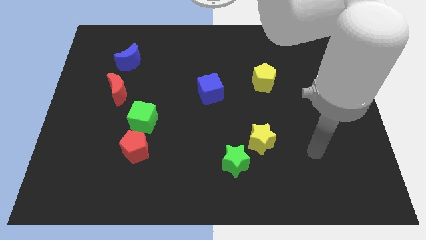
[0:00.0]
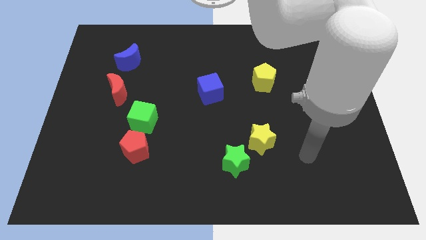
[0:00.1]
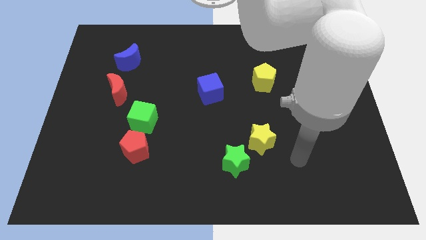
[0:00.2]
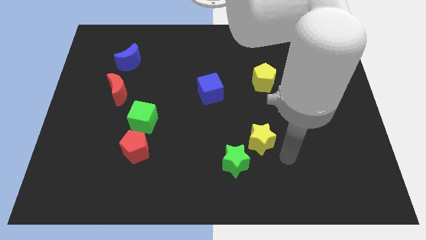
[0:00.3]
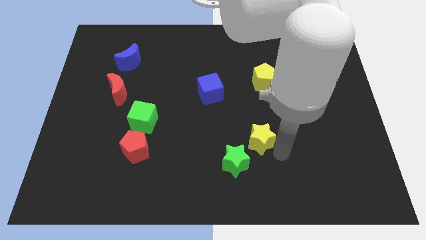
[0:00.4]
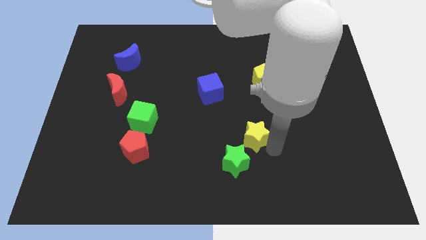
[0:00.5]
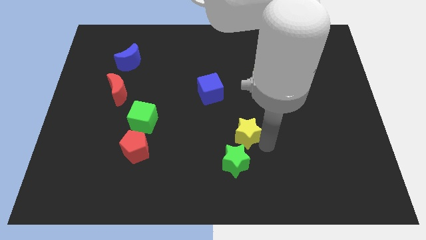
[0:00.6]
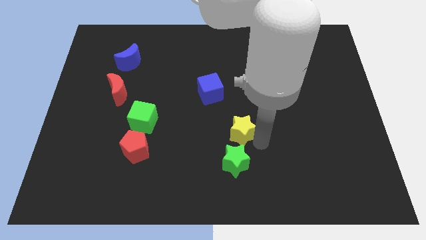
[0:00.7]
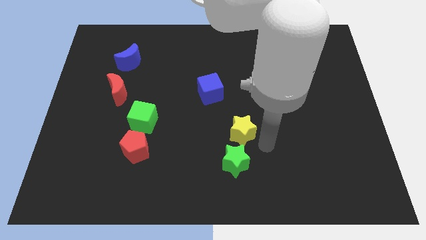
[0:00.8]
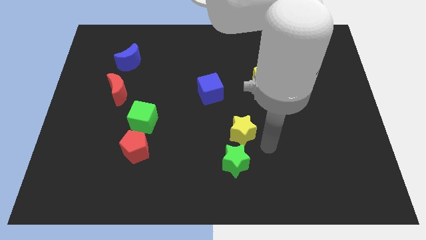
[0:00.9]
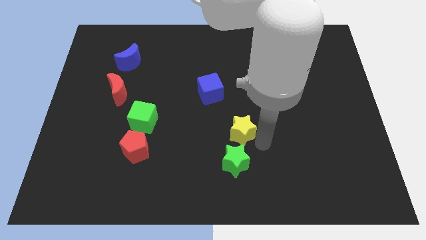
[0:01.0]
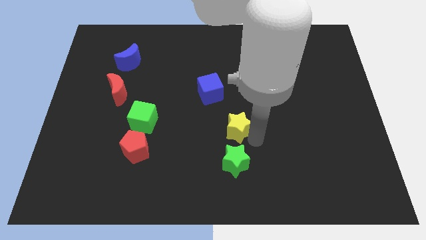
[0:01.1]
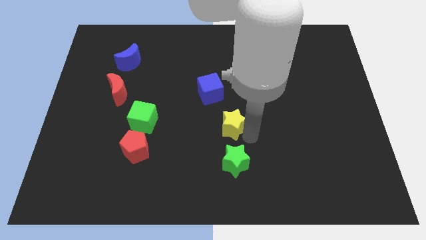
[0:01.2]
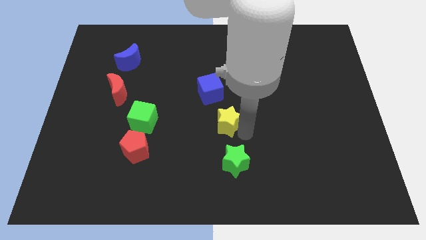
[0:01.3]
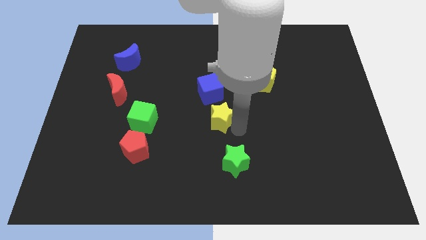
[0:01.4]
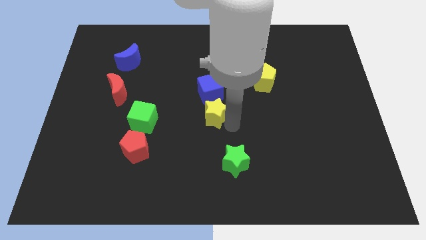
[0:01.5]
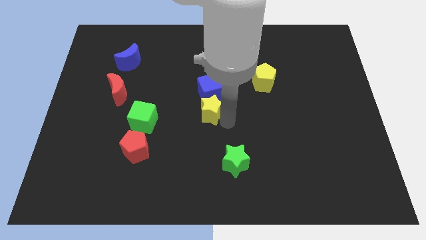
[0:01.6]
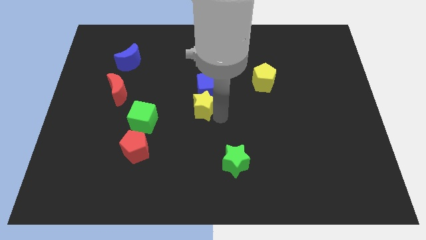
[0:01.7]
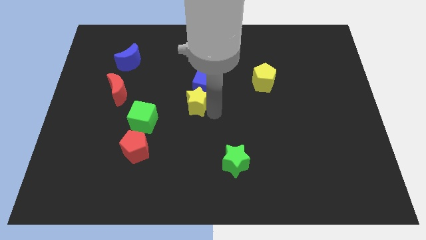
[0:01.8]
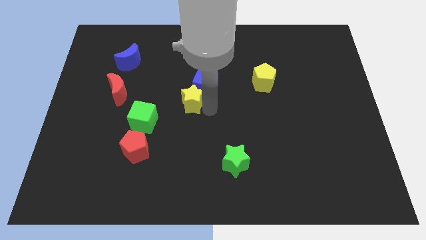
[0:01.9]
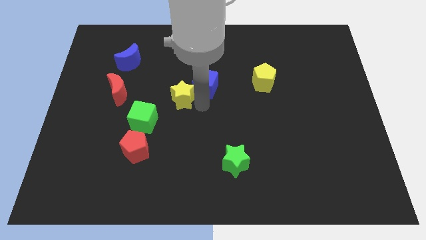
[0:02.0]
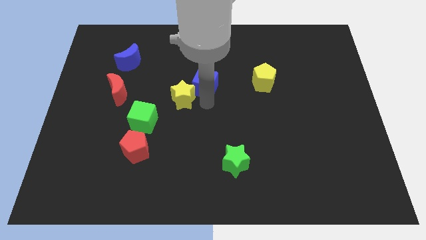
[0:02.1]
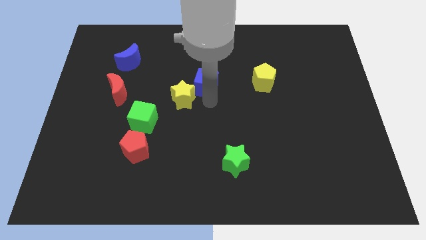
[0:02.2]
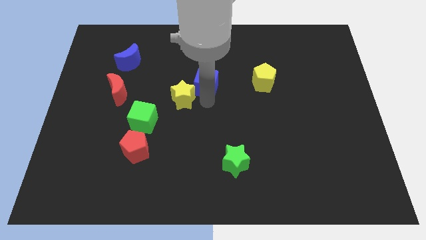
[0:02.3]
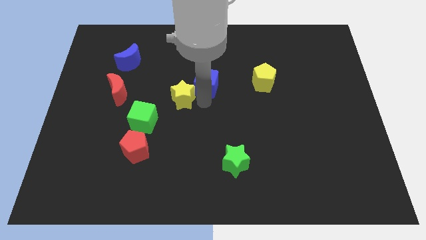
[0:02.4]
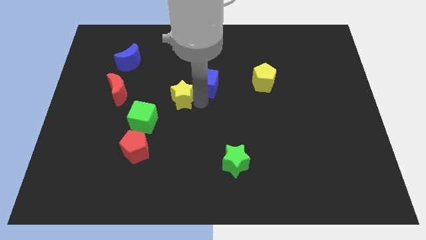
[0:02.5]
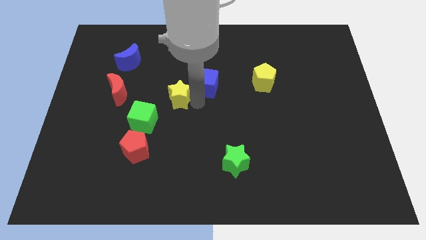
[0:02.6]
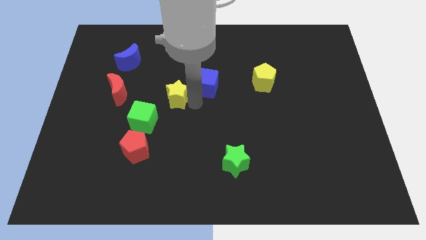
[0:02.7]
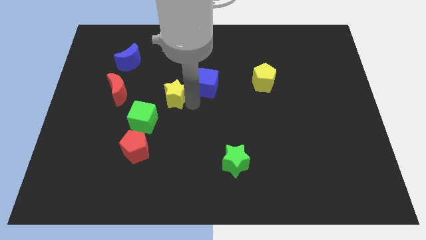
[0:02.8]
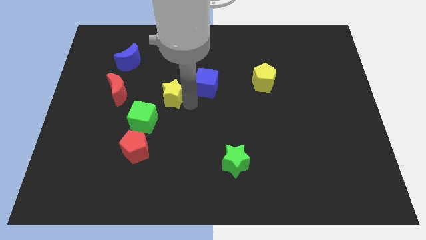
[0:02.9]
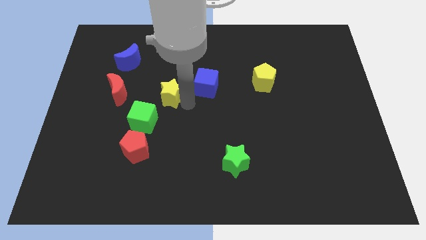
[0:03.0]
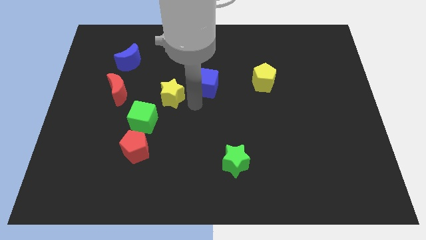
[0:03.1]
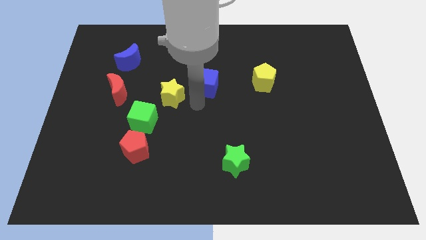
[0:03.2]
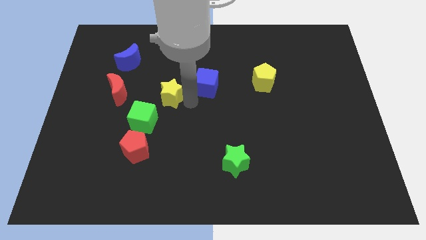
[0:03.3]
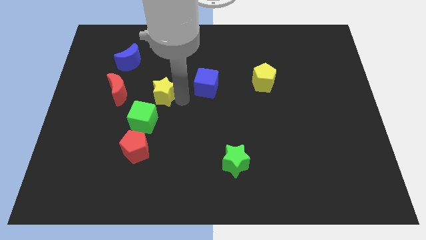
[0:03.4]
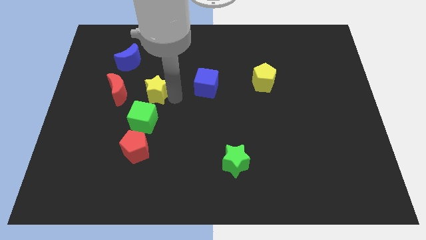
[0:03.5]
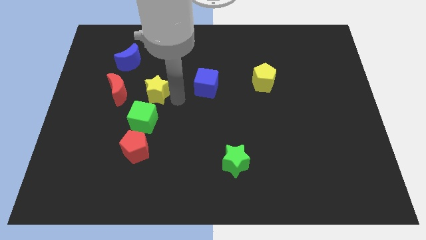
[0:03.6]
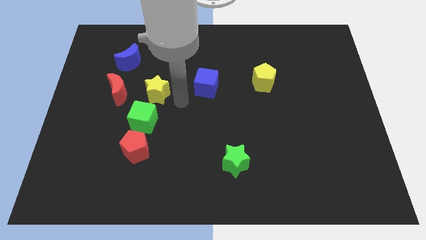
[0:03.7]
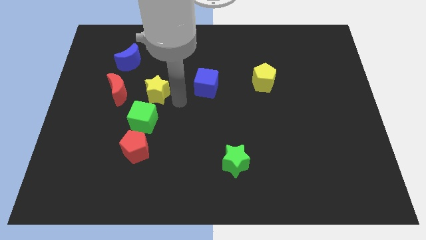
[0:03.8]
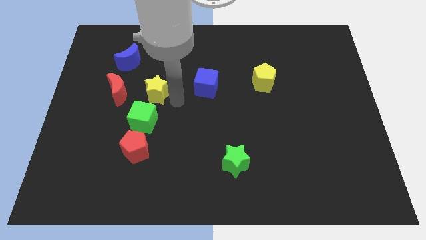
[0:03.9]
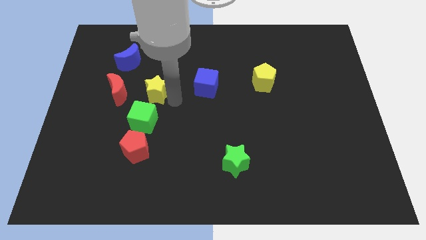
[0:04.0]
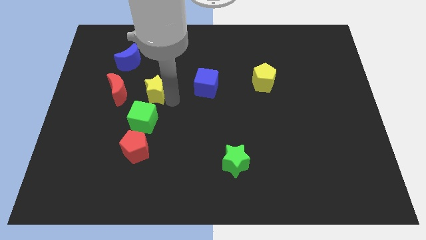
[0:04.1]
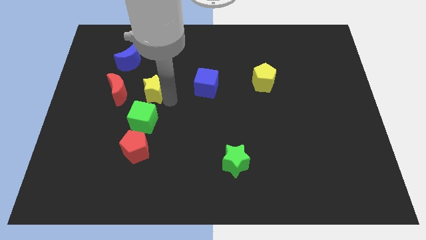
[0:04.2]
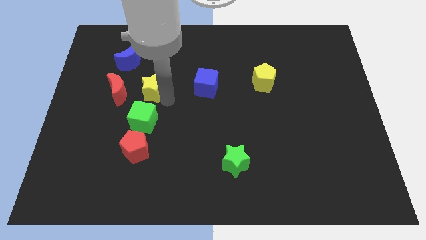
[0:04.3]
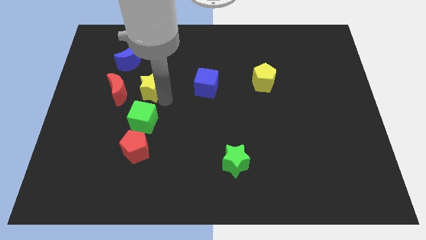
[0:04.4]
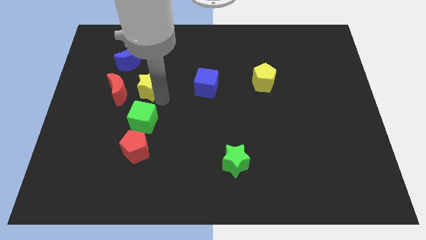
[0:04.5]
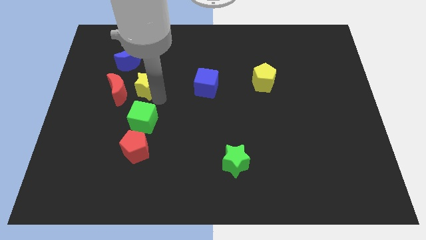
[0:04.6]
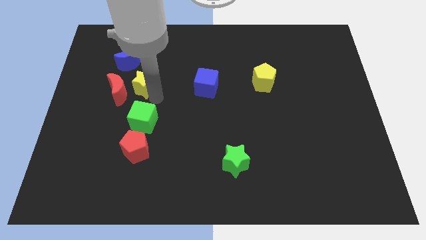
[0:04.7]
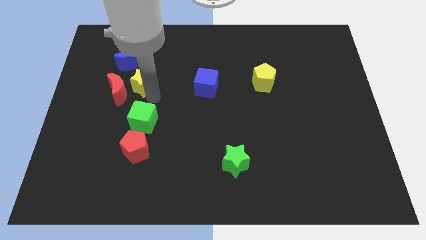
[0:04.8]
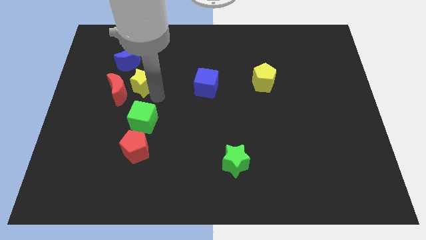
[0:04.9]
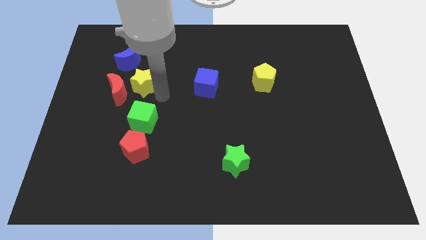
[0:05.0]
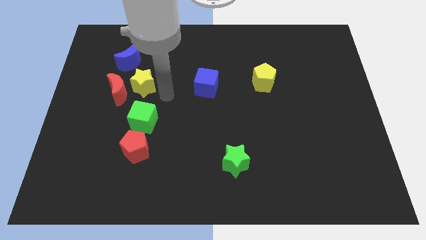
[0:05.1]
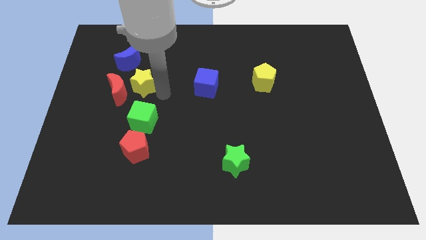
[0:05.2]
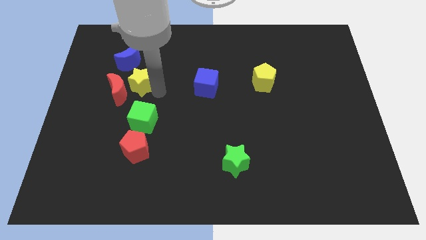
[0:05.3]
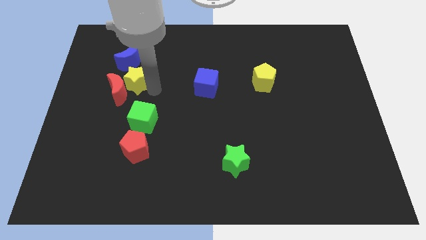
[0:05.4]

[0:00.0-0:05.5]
move the yellow star to the top of the red moon

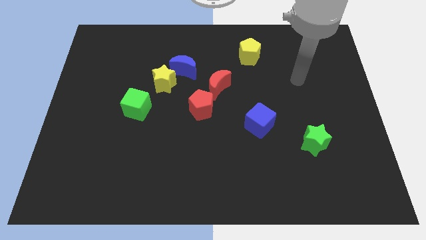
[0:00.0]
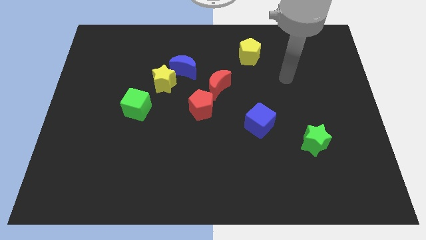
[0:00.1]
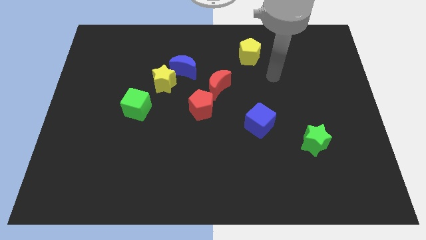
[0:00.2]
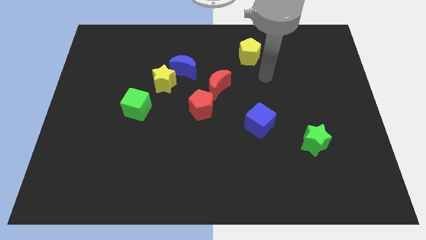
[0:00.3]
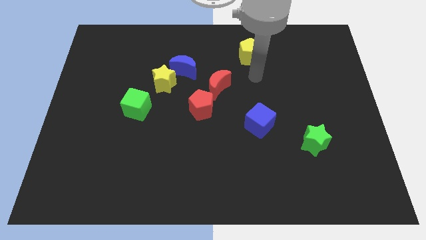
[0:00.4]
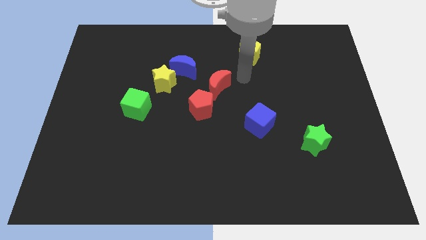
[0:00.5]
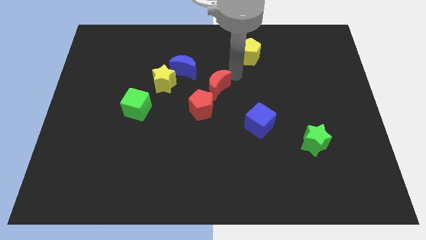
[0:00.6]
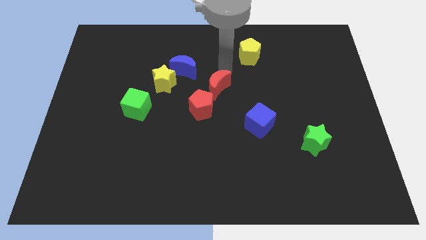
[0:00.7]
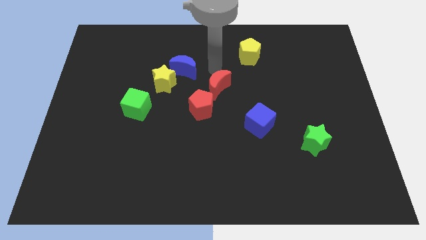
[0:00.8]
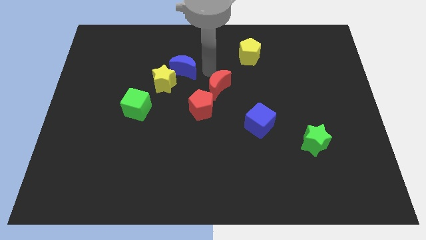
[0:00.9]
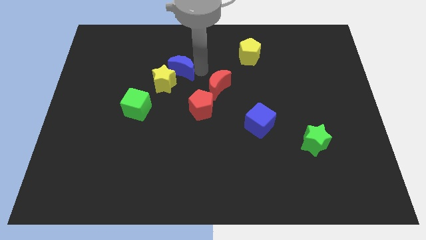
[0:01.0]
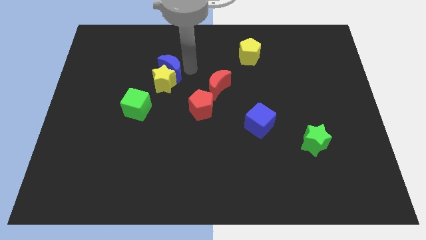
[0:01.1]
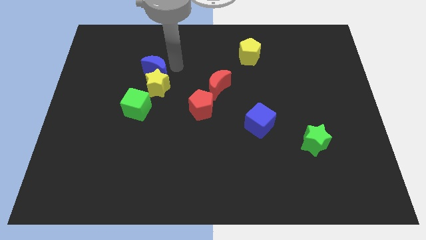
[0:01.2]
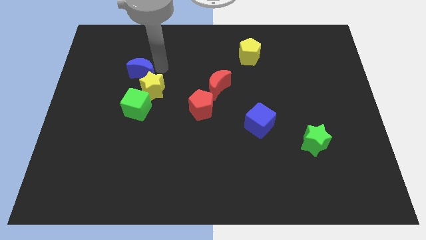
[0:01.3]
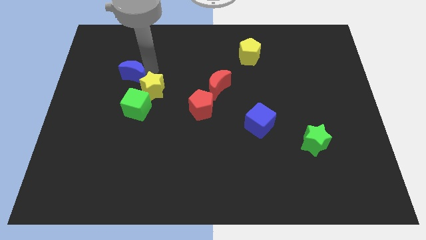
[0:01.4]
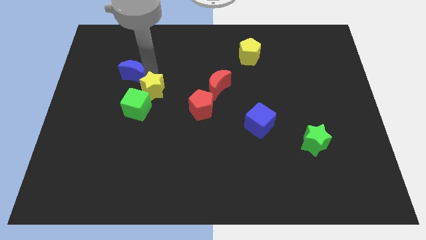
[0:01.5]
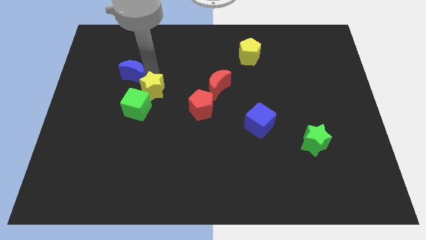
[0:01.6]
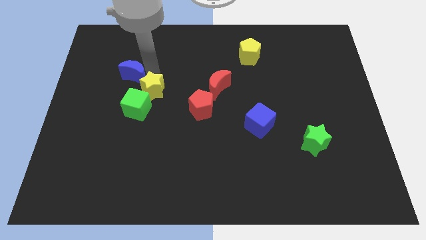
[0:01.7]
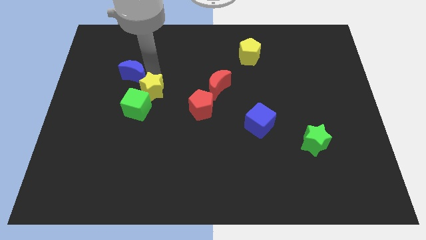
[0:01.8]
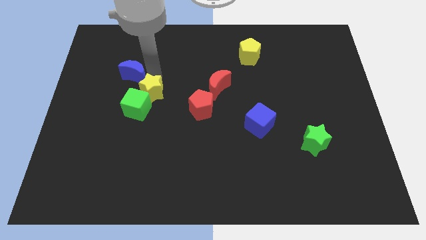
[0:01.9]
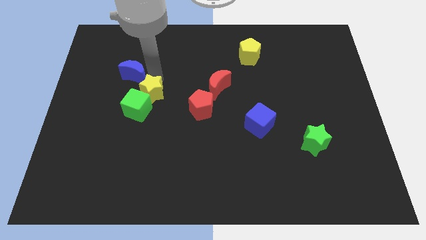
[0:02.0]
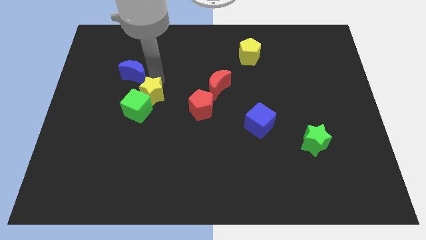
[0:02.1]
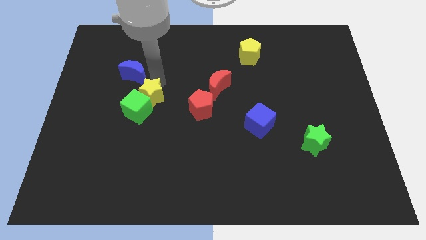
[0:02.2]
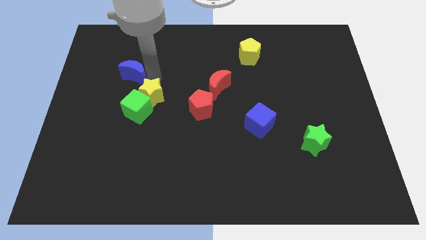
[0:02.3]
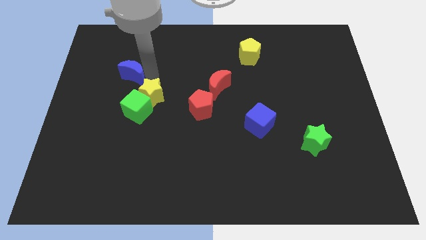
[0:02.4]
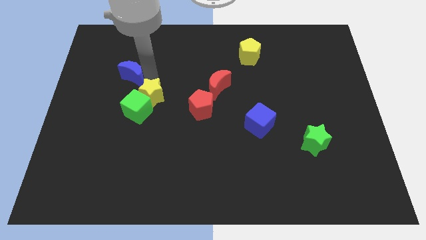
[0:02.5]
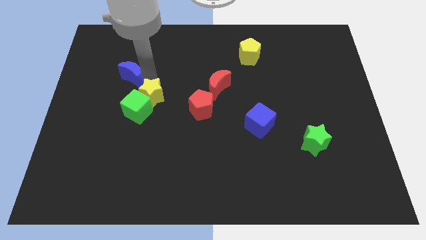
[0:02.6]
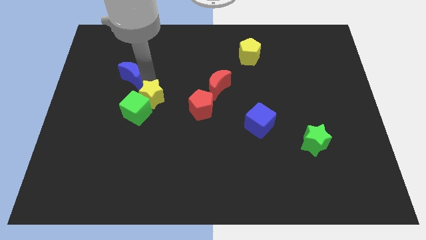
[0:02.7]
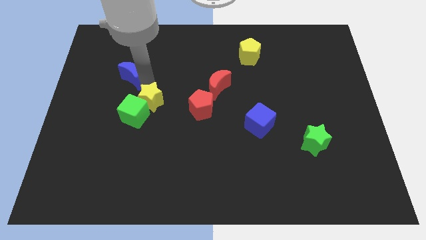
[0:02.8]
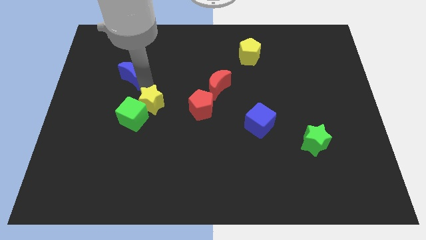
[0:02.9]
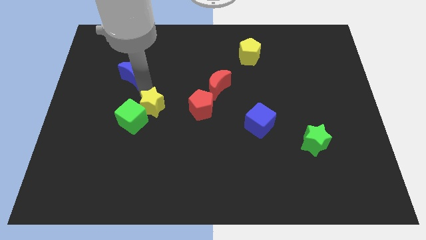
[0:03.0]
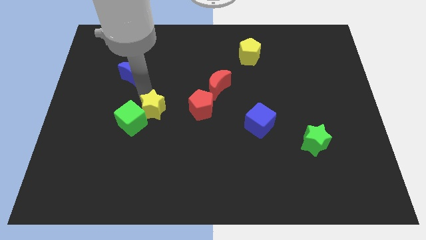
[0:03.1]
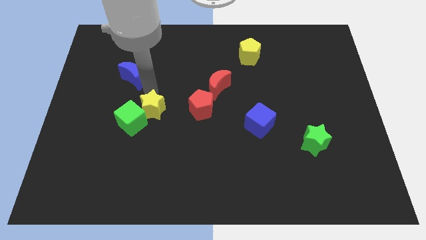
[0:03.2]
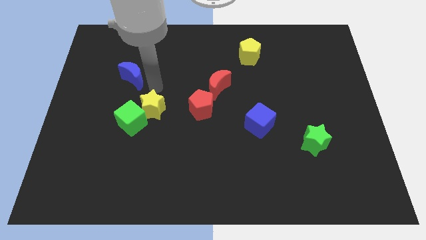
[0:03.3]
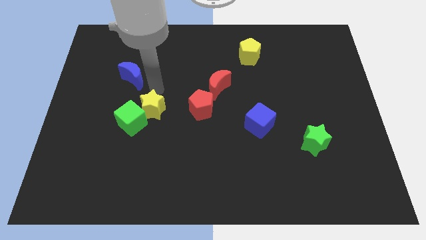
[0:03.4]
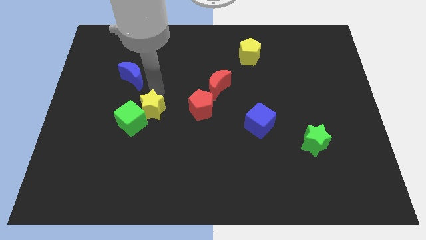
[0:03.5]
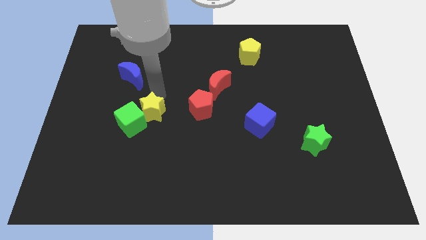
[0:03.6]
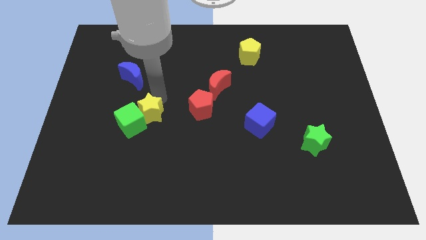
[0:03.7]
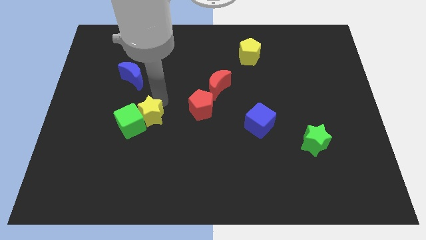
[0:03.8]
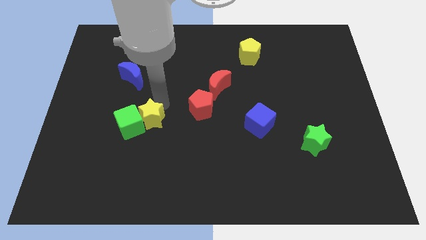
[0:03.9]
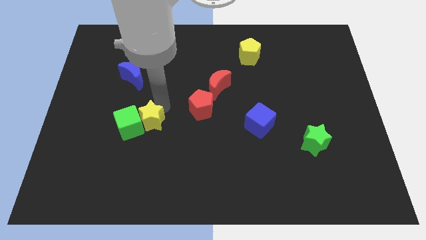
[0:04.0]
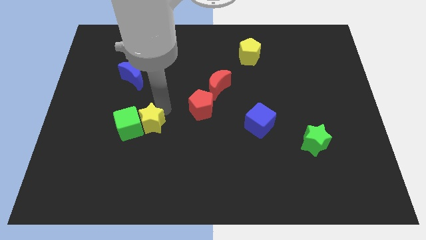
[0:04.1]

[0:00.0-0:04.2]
slide the yellow star to the bottom right of the green cube
